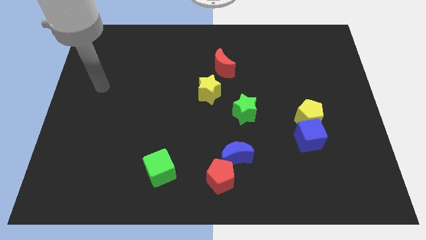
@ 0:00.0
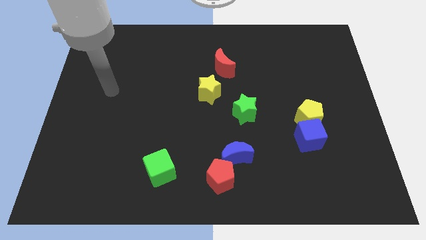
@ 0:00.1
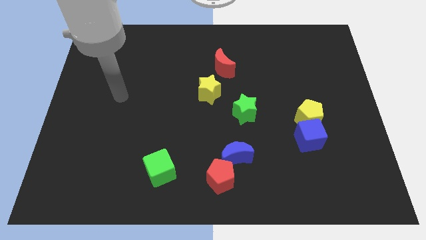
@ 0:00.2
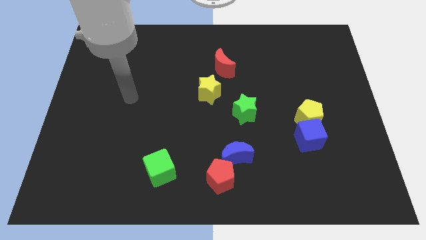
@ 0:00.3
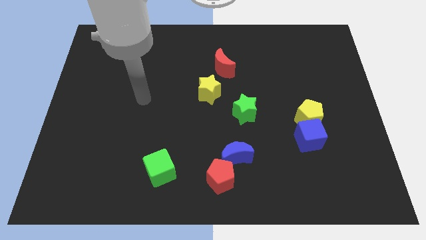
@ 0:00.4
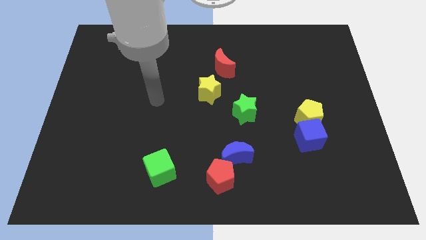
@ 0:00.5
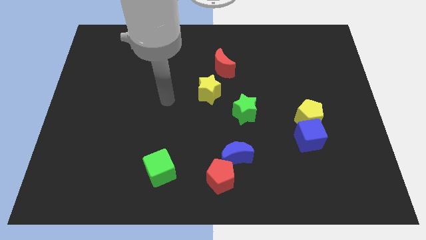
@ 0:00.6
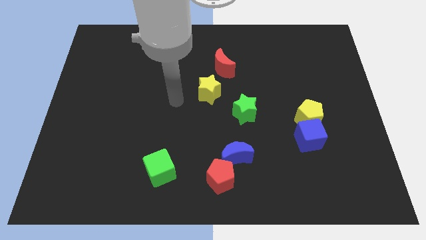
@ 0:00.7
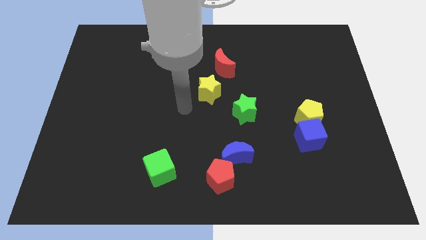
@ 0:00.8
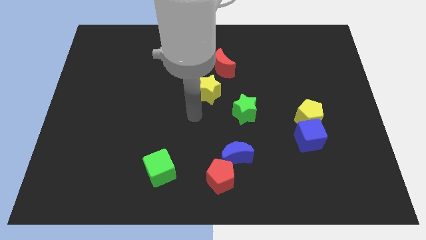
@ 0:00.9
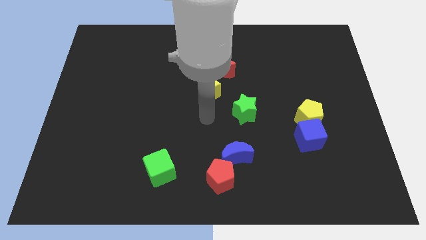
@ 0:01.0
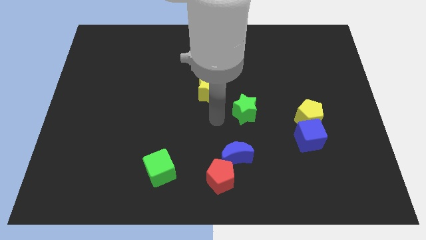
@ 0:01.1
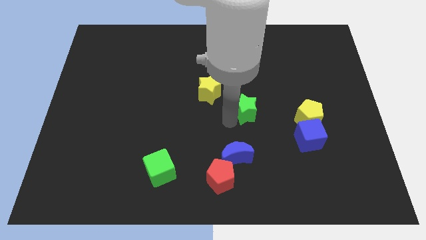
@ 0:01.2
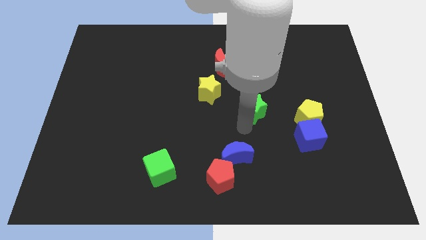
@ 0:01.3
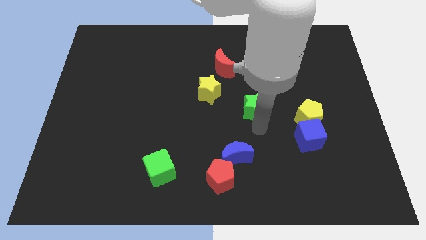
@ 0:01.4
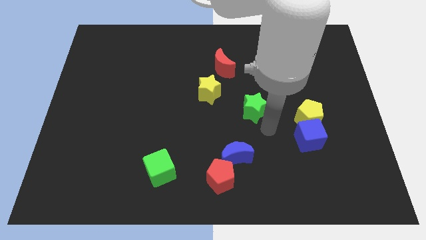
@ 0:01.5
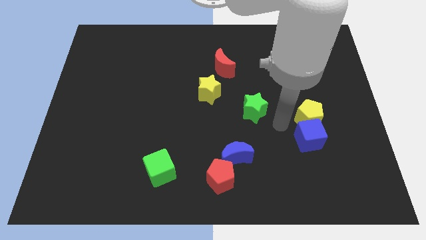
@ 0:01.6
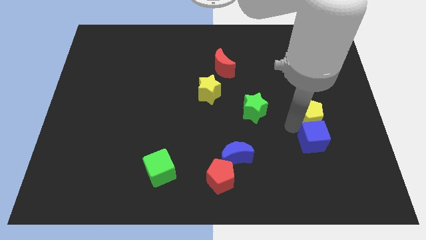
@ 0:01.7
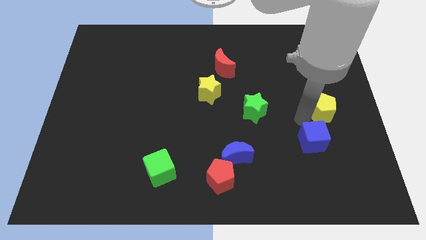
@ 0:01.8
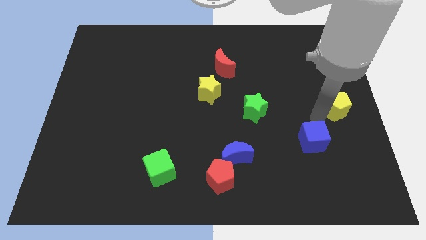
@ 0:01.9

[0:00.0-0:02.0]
pull the blue cube apart from the yellow pentagon

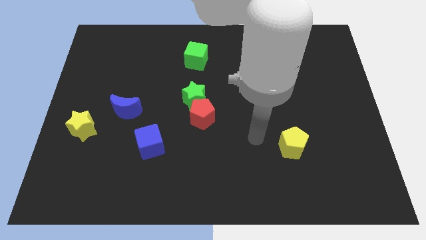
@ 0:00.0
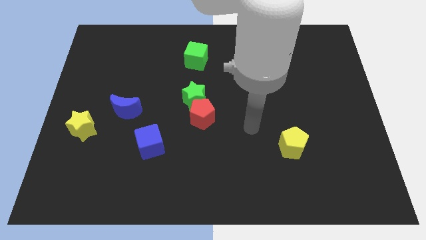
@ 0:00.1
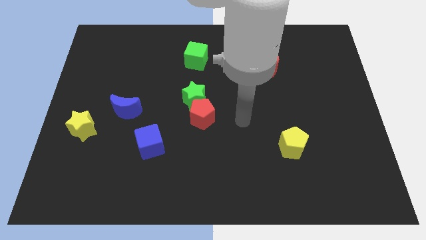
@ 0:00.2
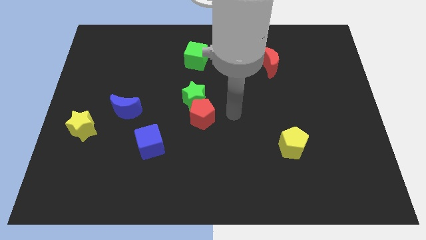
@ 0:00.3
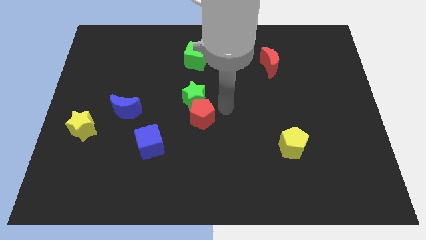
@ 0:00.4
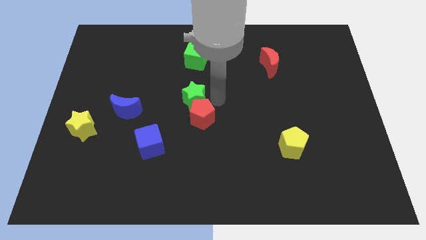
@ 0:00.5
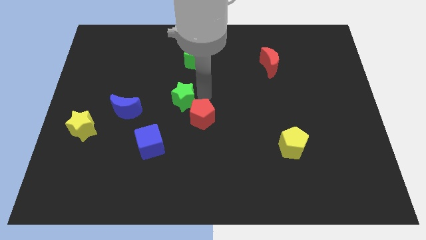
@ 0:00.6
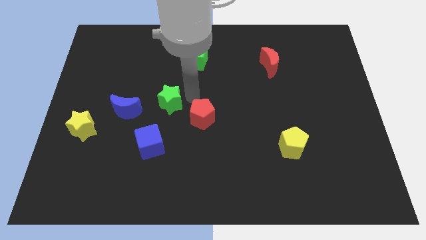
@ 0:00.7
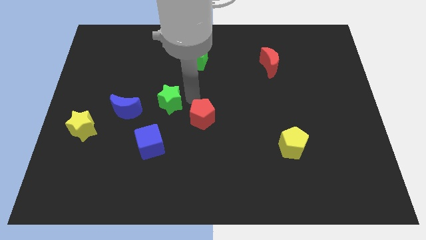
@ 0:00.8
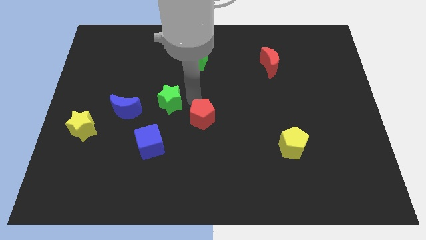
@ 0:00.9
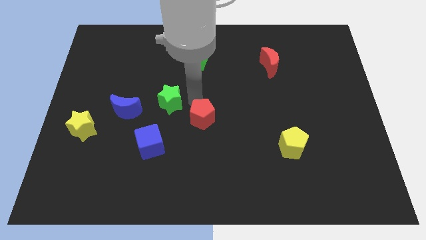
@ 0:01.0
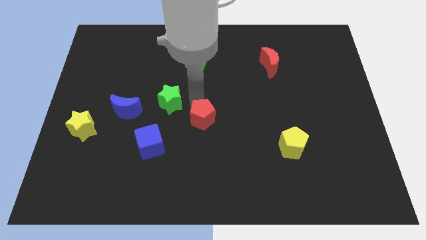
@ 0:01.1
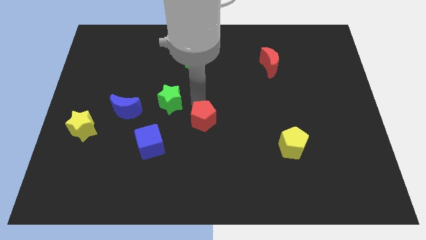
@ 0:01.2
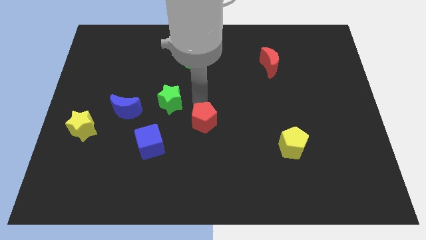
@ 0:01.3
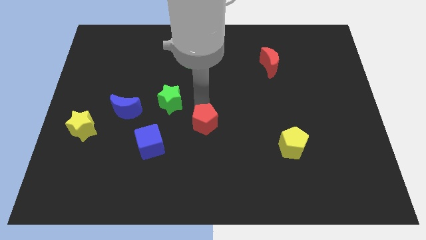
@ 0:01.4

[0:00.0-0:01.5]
pull the red pentagon apart from the green star

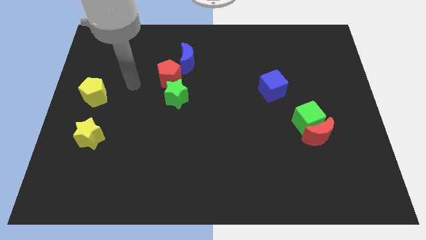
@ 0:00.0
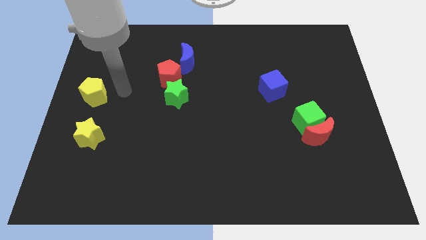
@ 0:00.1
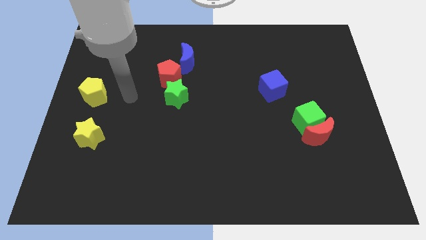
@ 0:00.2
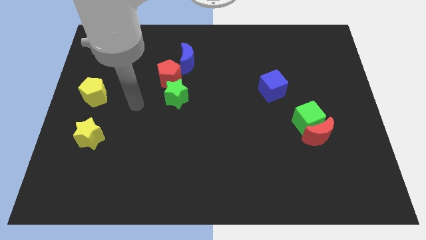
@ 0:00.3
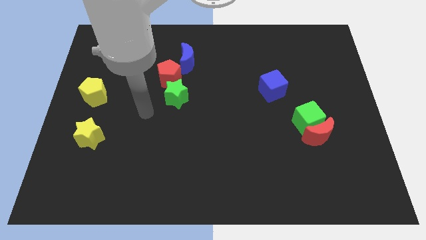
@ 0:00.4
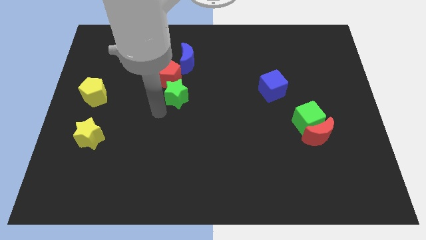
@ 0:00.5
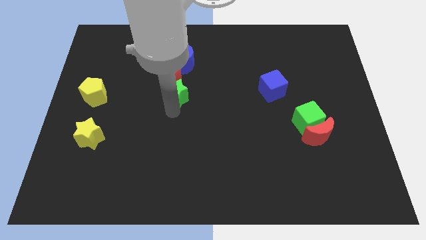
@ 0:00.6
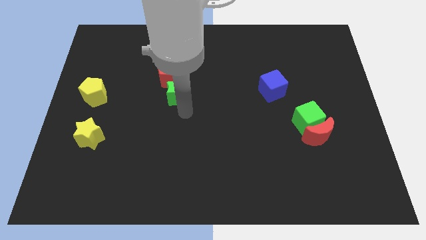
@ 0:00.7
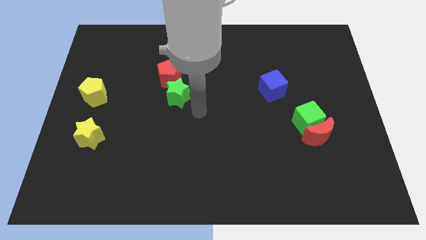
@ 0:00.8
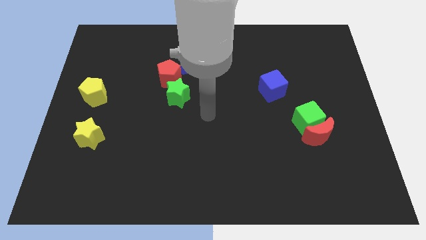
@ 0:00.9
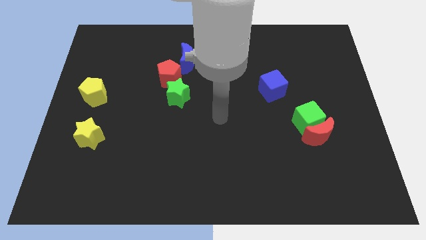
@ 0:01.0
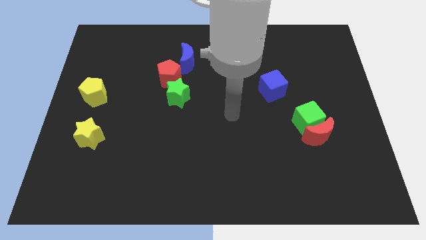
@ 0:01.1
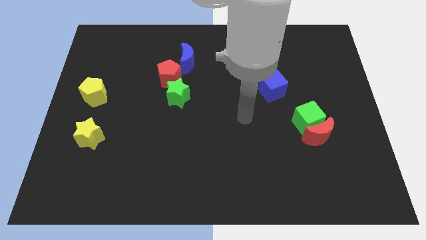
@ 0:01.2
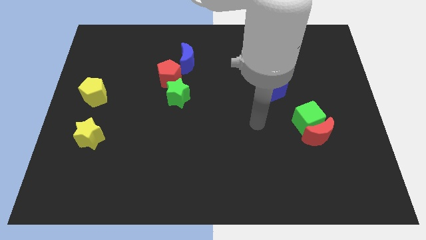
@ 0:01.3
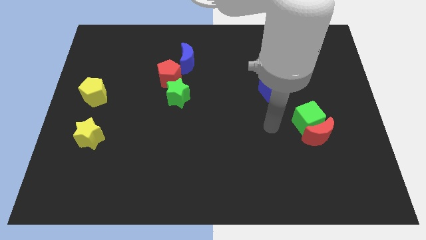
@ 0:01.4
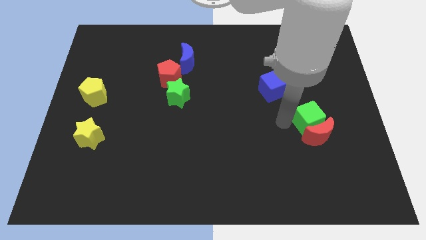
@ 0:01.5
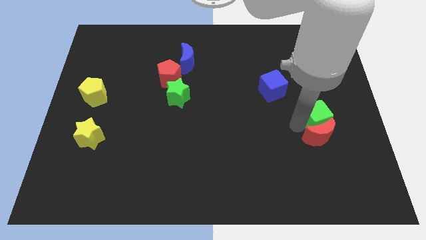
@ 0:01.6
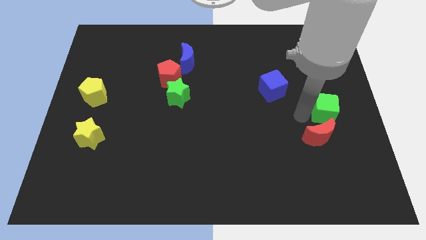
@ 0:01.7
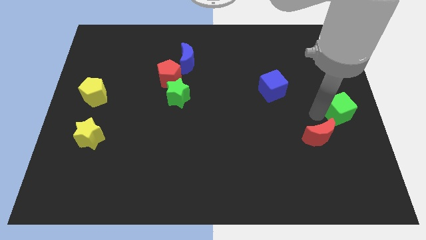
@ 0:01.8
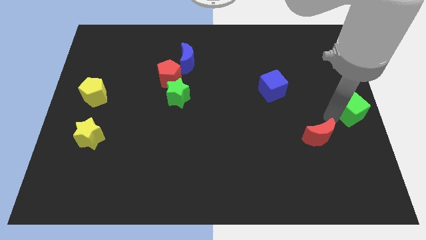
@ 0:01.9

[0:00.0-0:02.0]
pull the red moon apart from the green cube

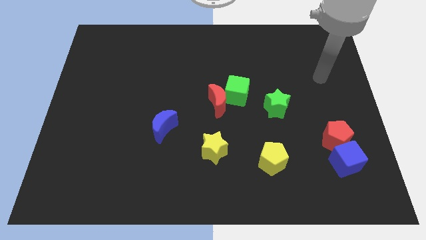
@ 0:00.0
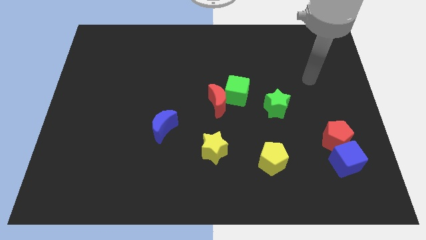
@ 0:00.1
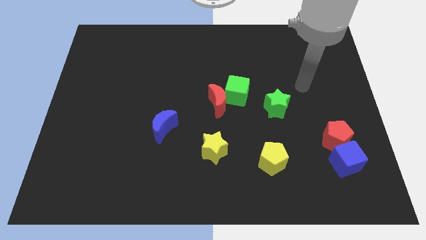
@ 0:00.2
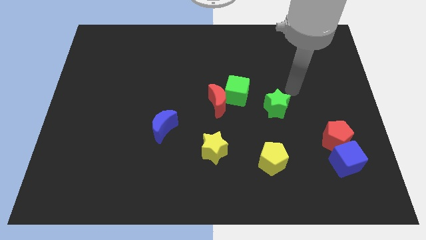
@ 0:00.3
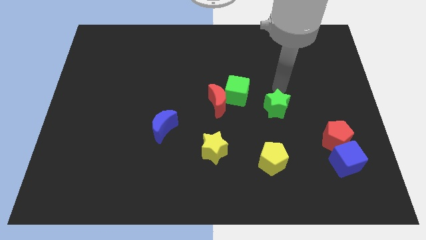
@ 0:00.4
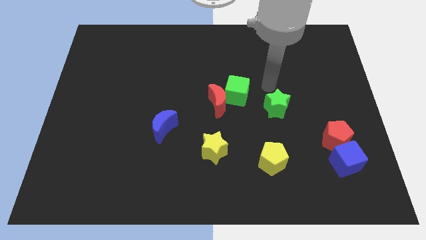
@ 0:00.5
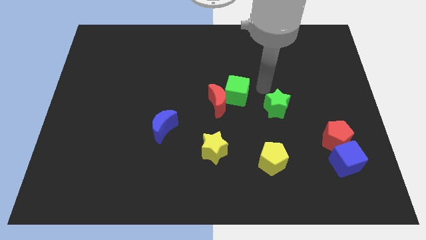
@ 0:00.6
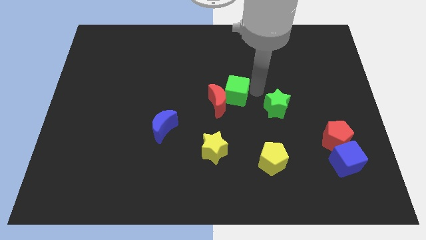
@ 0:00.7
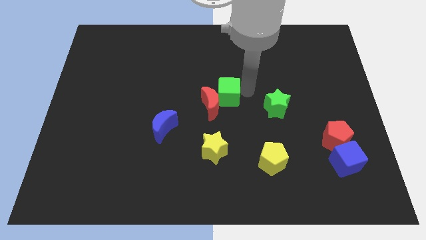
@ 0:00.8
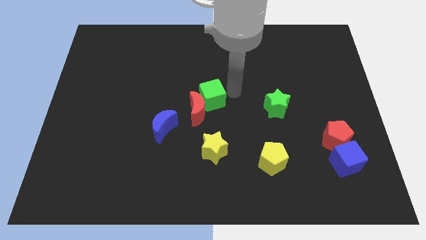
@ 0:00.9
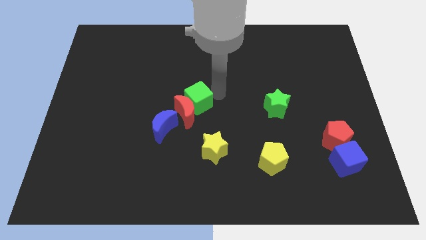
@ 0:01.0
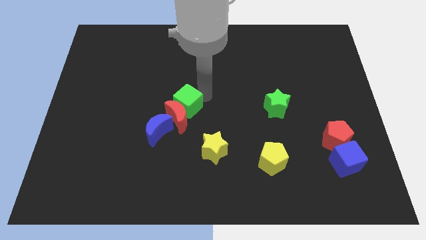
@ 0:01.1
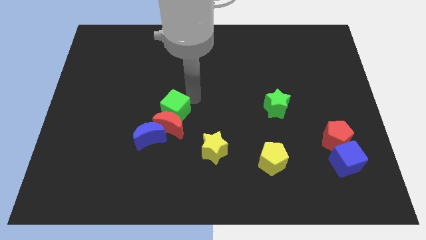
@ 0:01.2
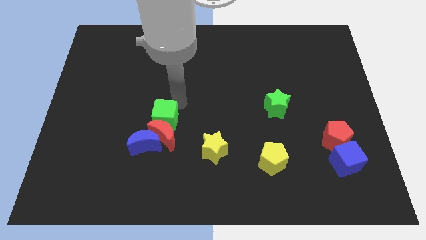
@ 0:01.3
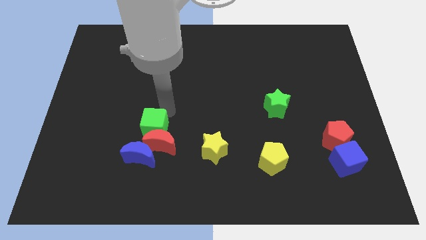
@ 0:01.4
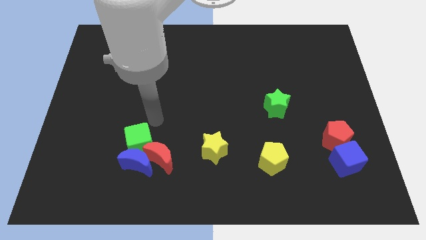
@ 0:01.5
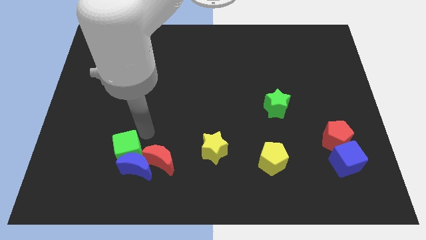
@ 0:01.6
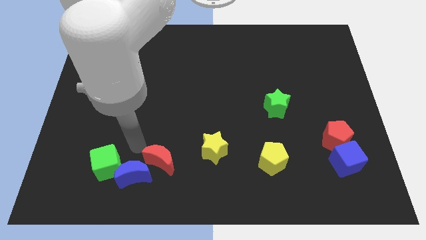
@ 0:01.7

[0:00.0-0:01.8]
separate the red moon from the green cube

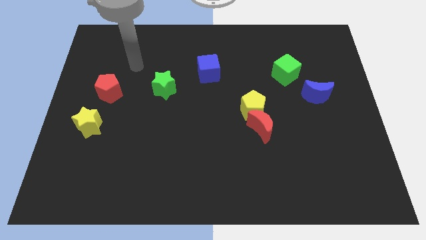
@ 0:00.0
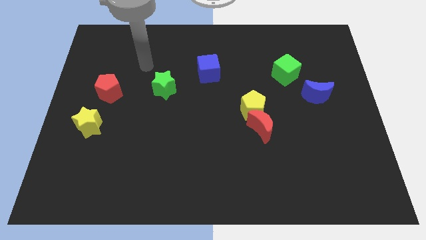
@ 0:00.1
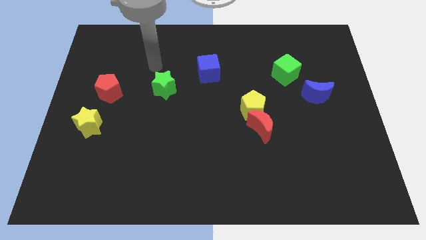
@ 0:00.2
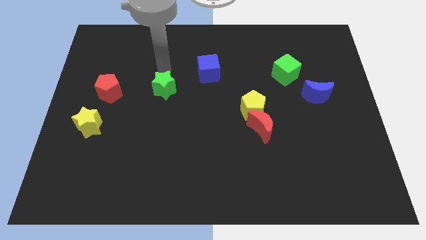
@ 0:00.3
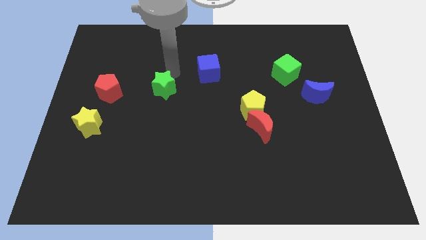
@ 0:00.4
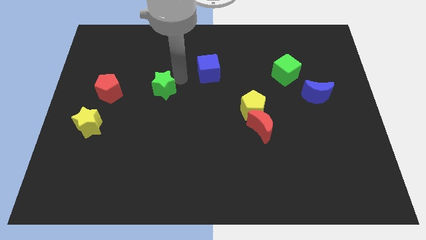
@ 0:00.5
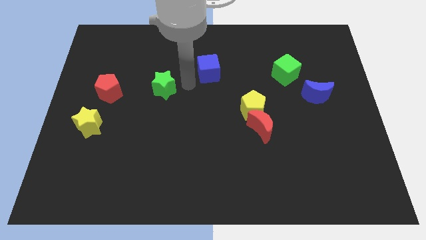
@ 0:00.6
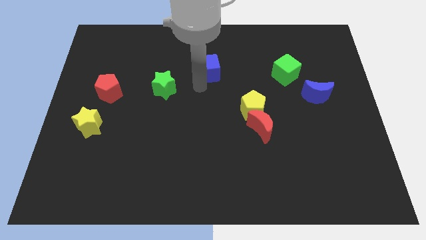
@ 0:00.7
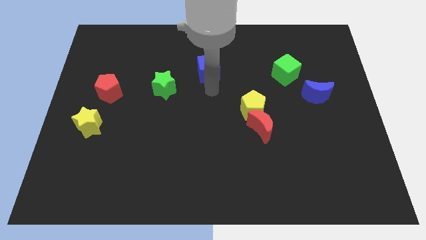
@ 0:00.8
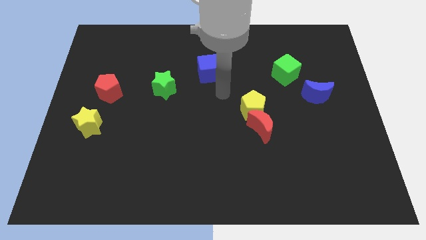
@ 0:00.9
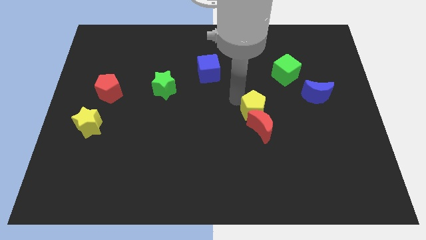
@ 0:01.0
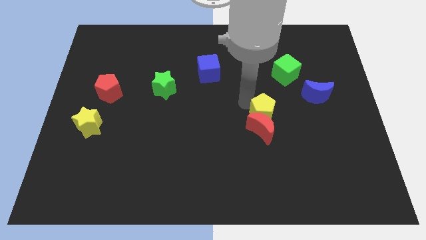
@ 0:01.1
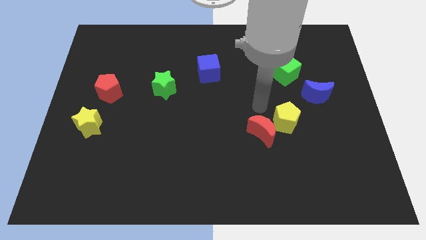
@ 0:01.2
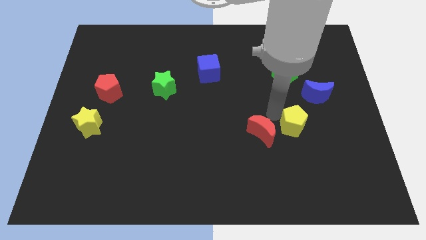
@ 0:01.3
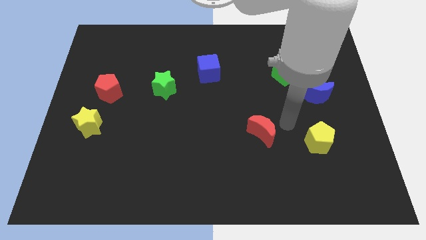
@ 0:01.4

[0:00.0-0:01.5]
pull the red moon apart from the yellow pentagon

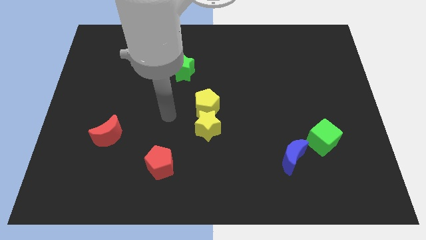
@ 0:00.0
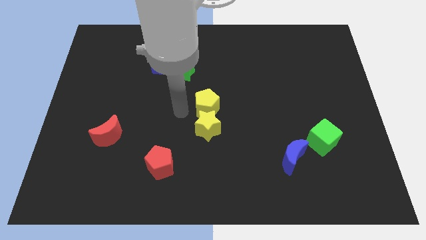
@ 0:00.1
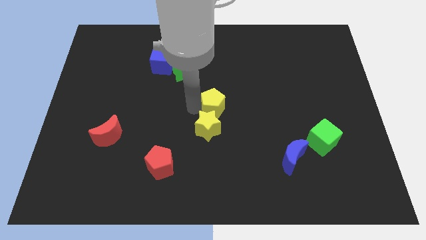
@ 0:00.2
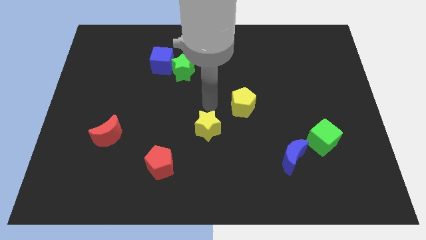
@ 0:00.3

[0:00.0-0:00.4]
pull the yellow star apart from the yellow pentagon

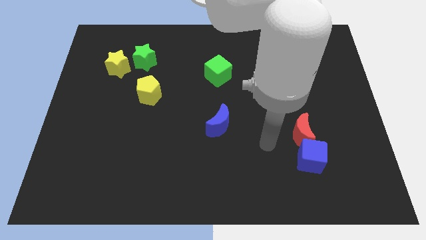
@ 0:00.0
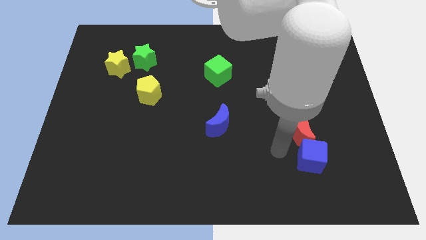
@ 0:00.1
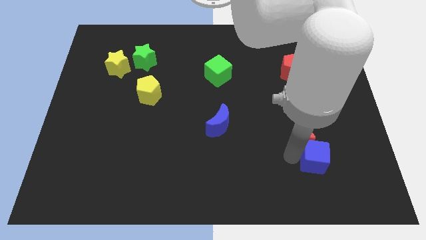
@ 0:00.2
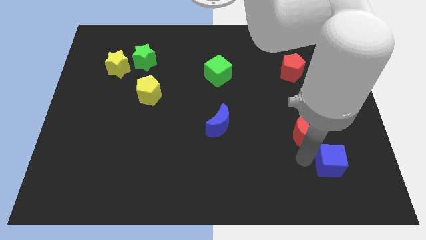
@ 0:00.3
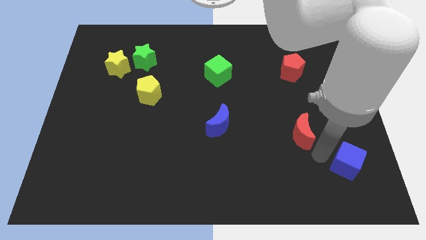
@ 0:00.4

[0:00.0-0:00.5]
pull the red moon apart from the blue cube
